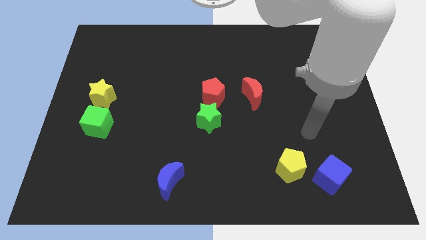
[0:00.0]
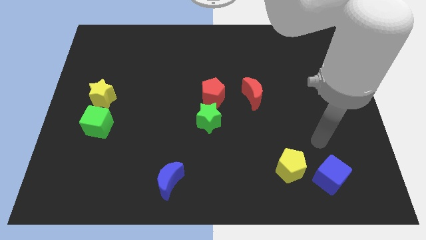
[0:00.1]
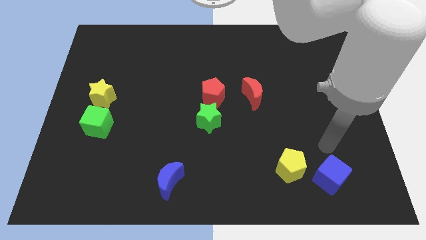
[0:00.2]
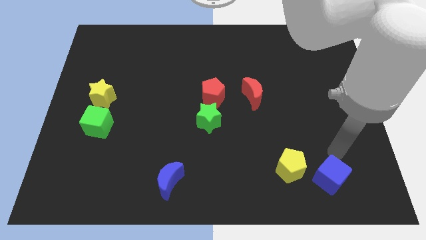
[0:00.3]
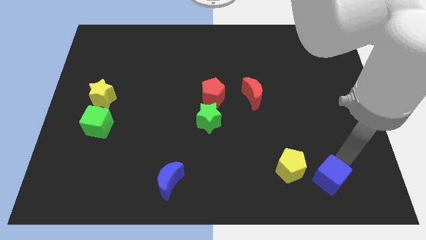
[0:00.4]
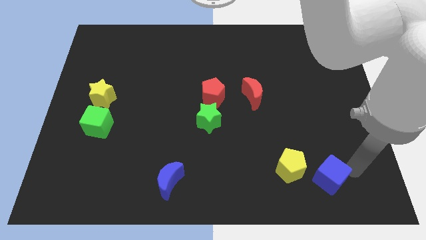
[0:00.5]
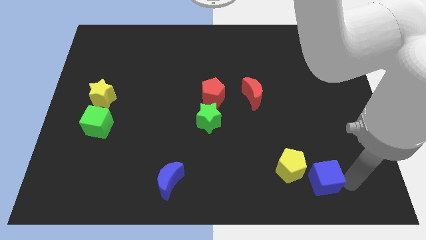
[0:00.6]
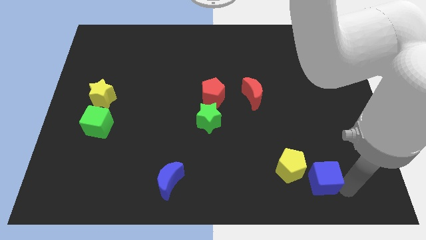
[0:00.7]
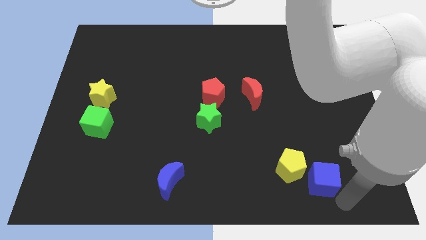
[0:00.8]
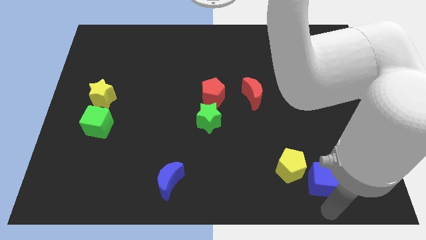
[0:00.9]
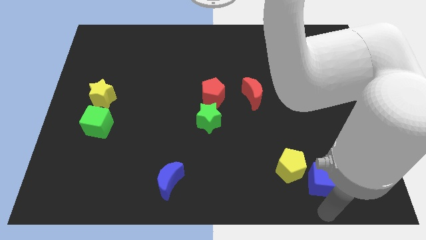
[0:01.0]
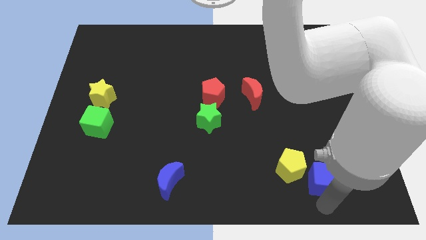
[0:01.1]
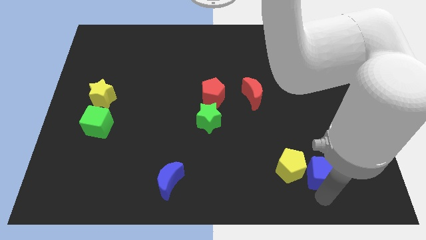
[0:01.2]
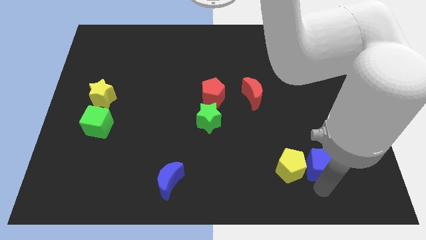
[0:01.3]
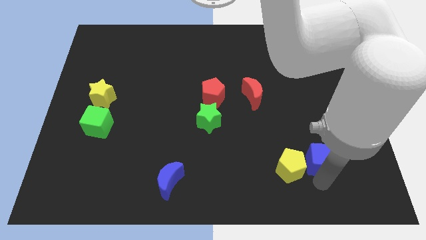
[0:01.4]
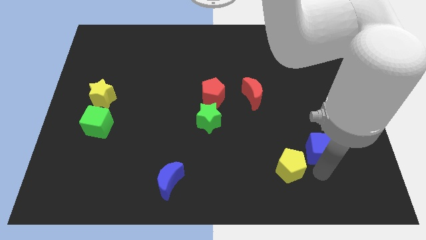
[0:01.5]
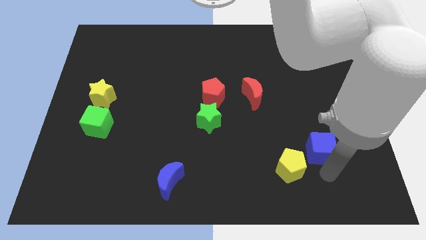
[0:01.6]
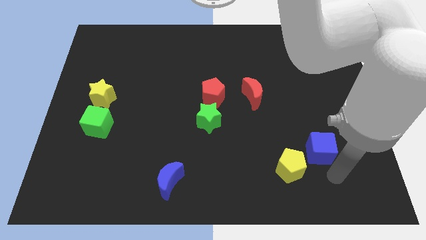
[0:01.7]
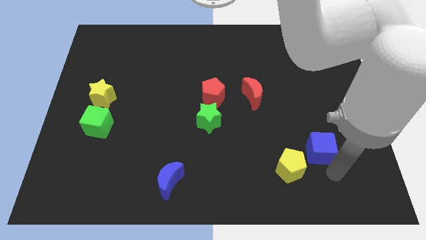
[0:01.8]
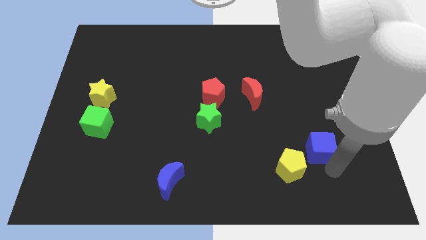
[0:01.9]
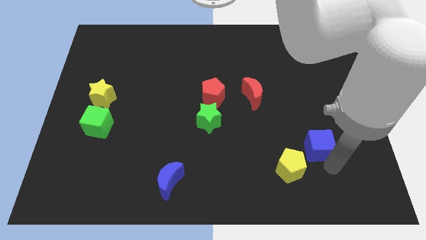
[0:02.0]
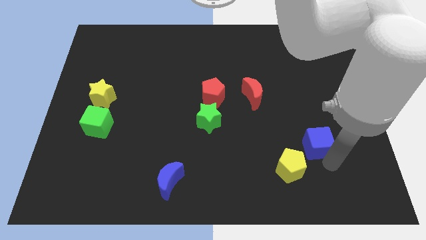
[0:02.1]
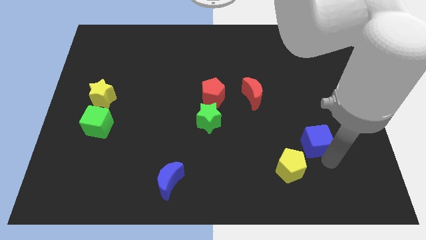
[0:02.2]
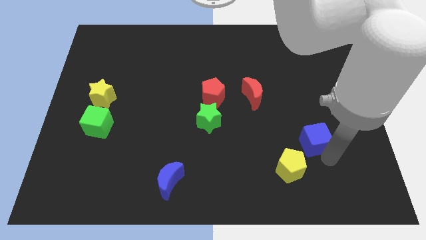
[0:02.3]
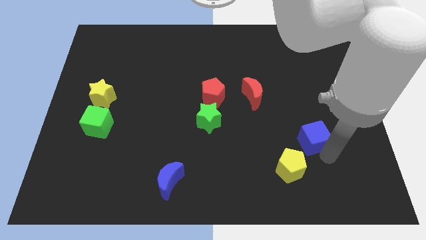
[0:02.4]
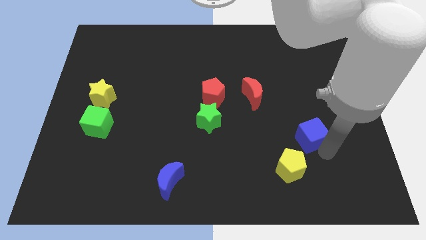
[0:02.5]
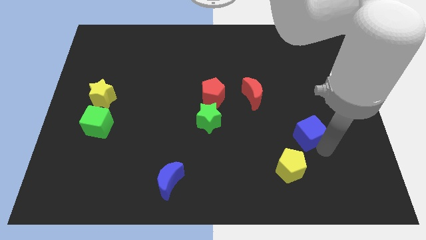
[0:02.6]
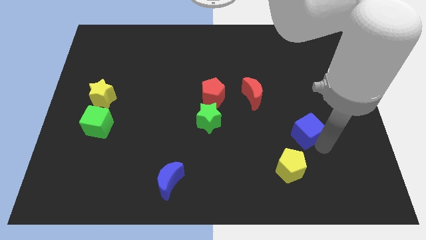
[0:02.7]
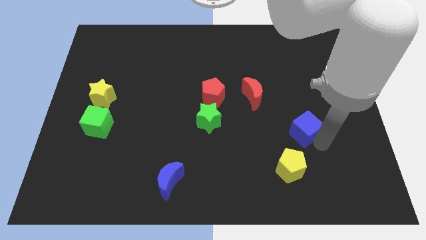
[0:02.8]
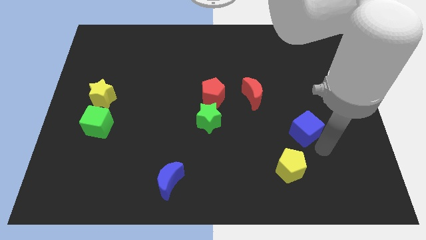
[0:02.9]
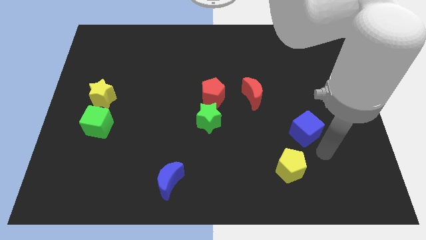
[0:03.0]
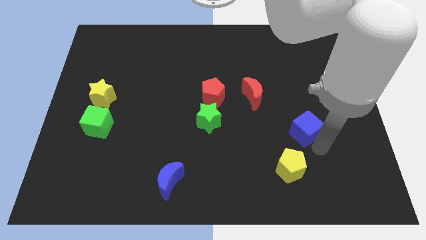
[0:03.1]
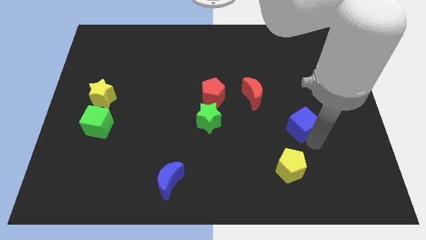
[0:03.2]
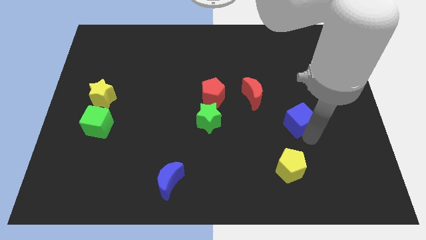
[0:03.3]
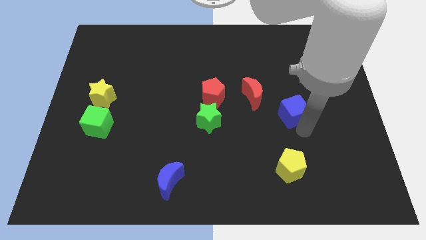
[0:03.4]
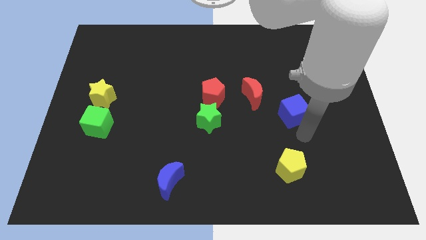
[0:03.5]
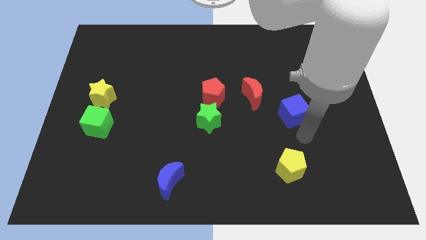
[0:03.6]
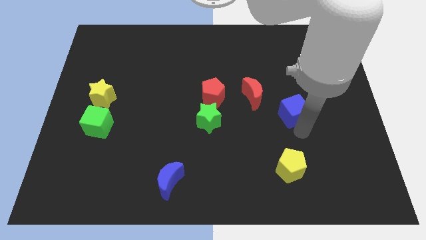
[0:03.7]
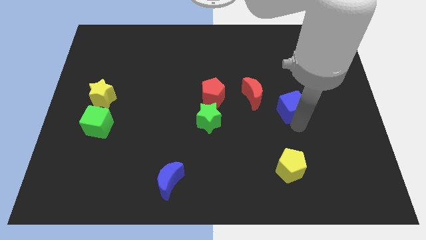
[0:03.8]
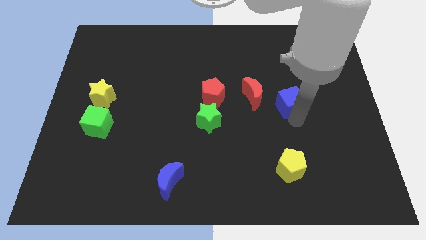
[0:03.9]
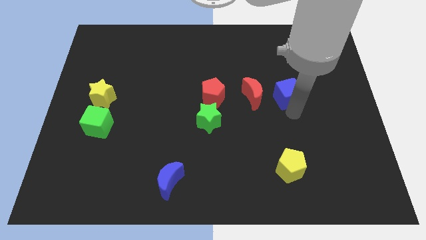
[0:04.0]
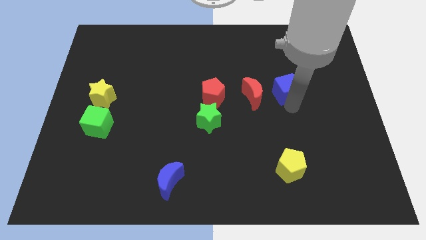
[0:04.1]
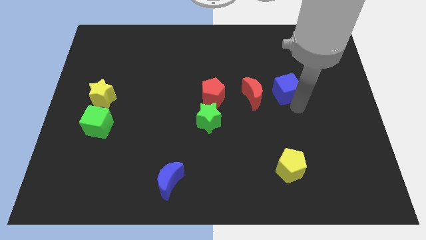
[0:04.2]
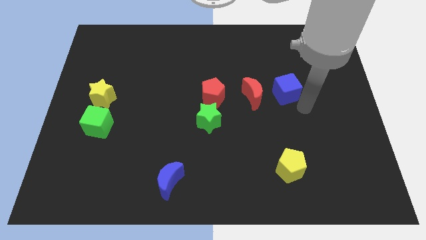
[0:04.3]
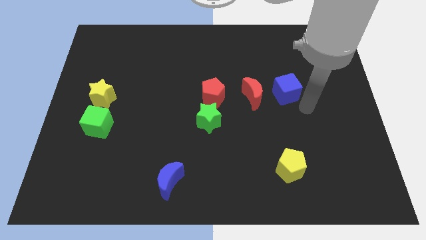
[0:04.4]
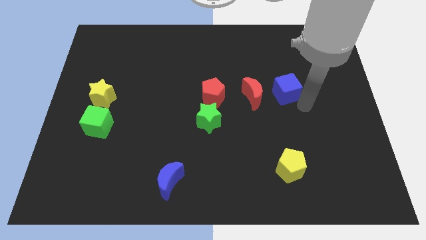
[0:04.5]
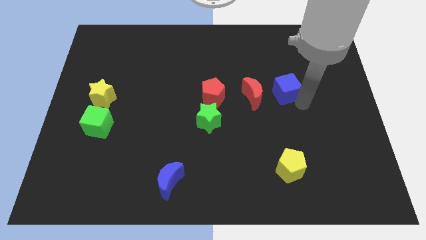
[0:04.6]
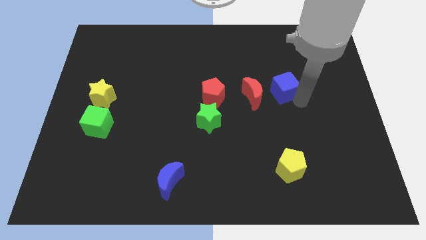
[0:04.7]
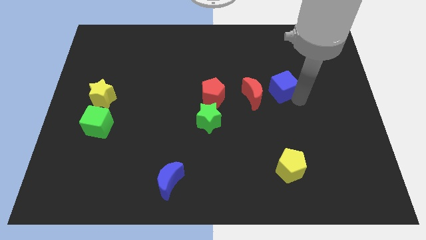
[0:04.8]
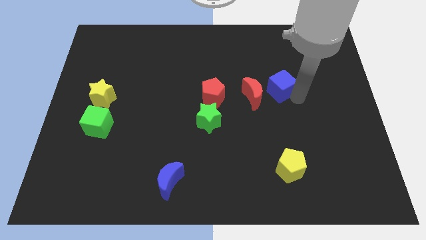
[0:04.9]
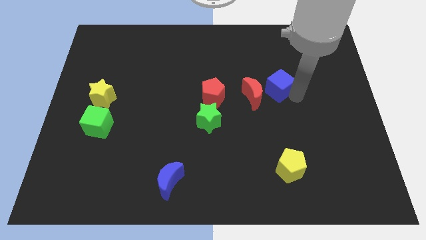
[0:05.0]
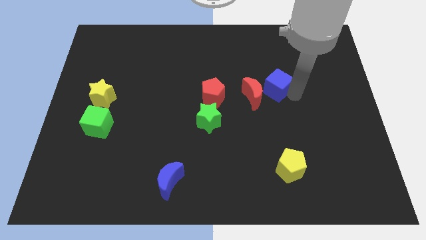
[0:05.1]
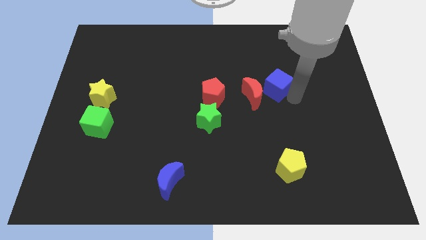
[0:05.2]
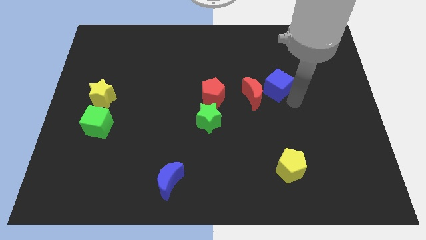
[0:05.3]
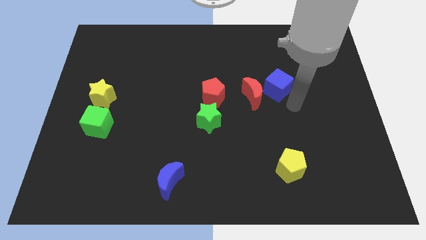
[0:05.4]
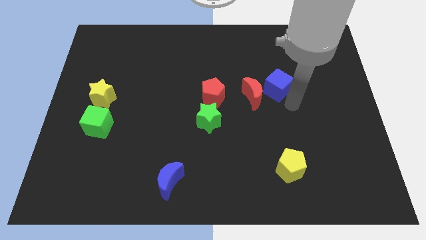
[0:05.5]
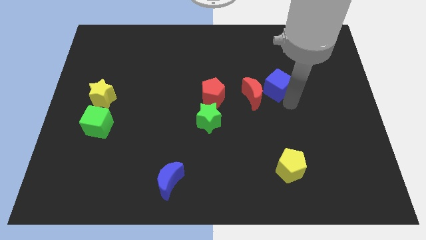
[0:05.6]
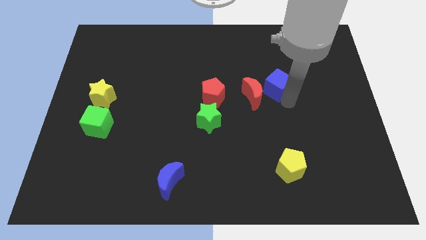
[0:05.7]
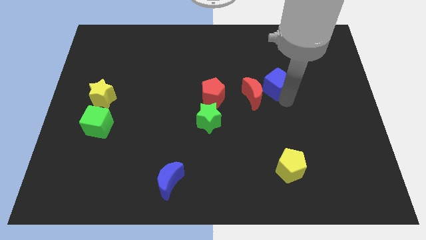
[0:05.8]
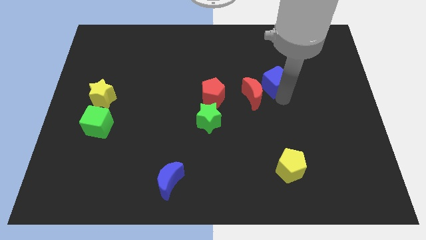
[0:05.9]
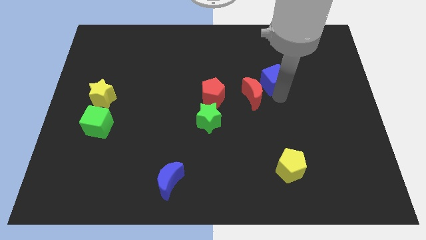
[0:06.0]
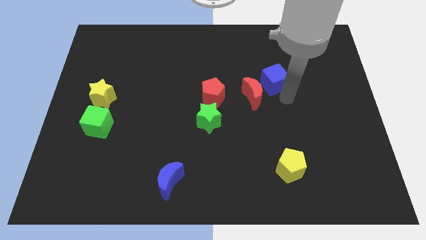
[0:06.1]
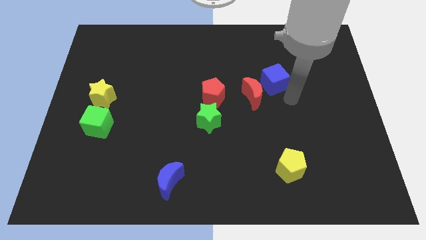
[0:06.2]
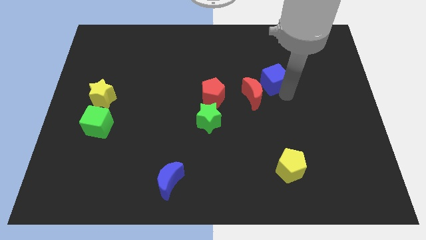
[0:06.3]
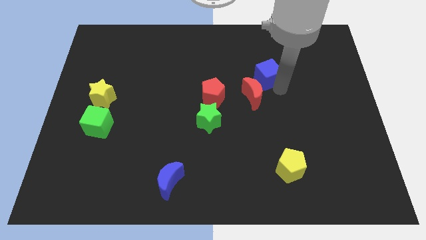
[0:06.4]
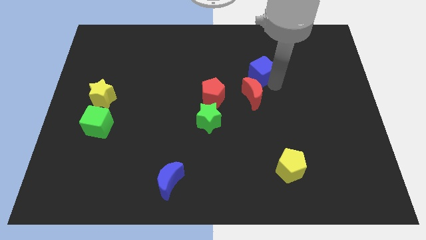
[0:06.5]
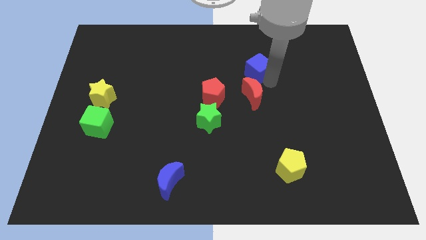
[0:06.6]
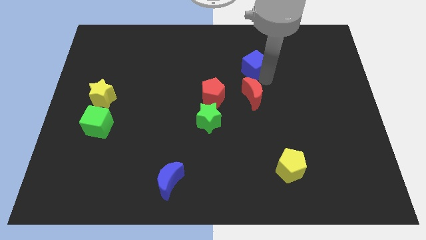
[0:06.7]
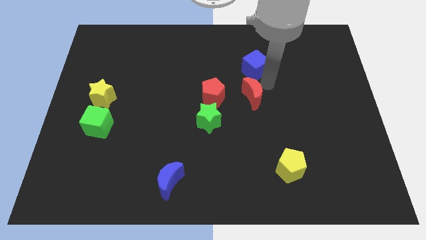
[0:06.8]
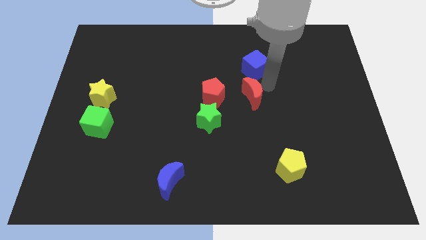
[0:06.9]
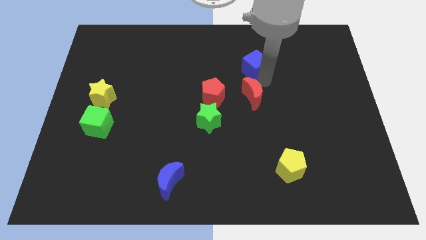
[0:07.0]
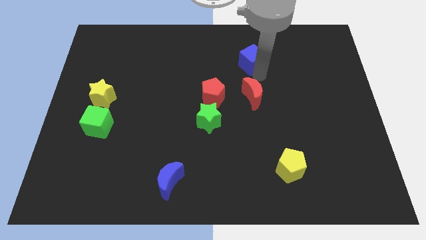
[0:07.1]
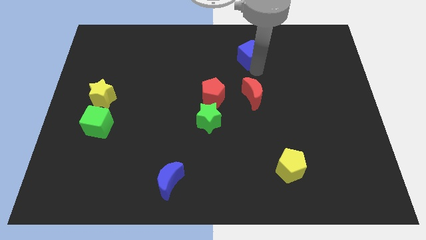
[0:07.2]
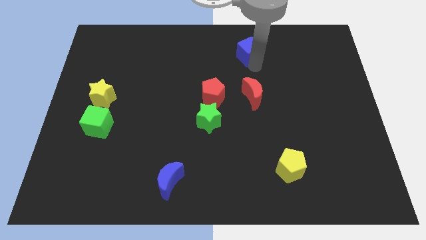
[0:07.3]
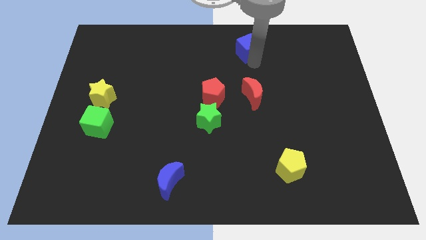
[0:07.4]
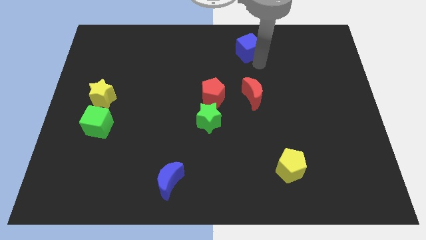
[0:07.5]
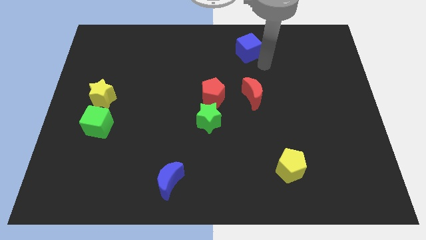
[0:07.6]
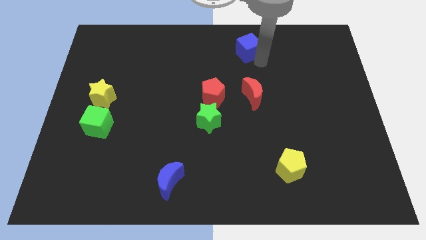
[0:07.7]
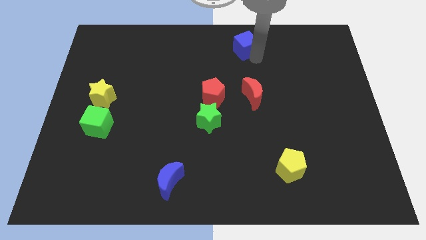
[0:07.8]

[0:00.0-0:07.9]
push the blue cube to the top
